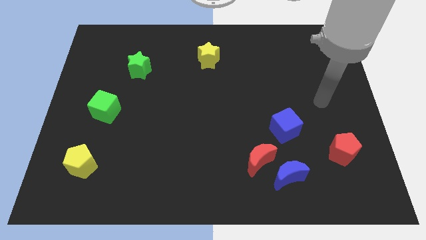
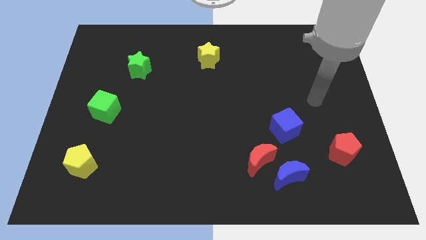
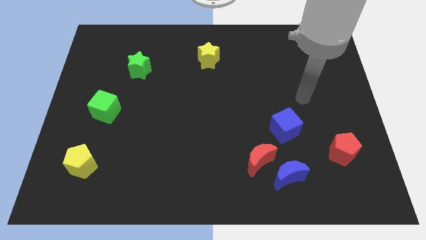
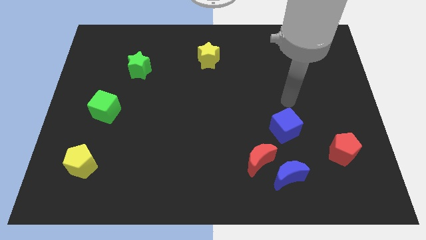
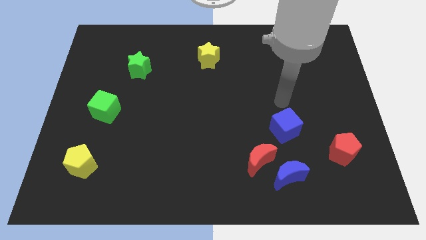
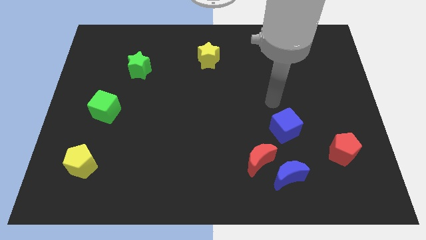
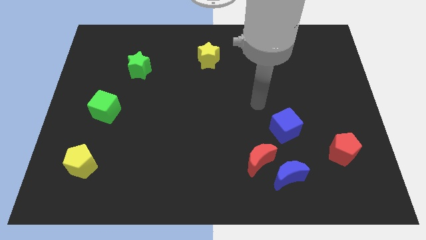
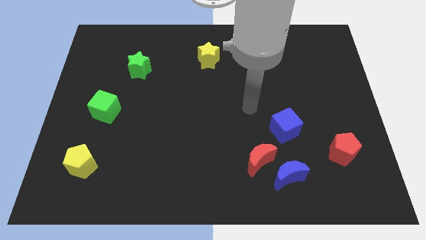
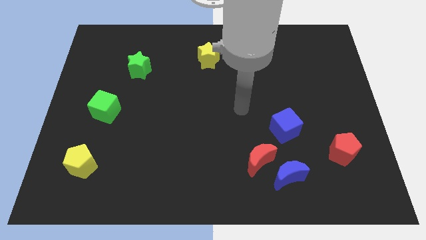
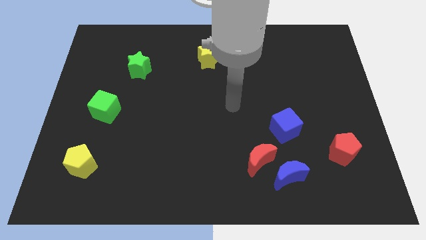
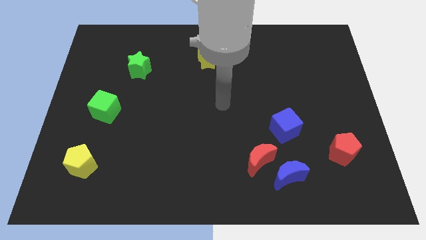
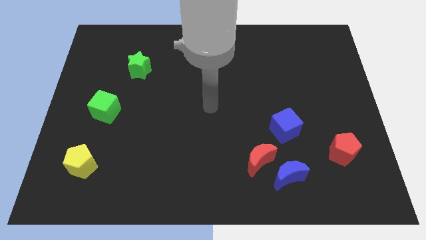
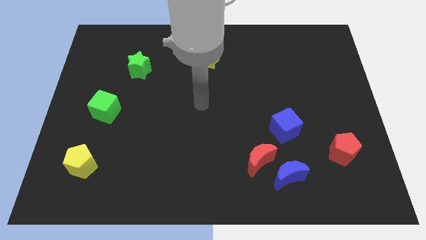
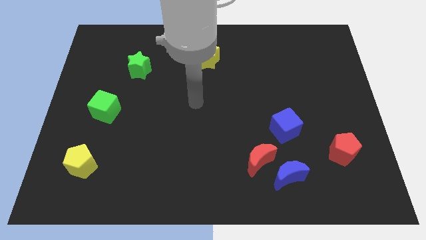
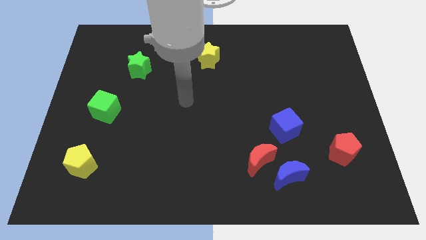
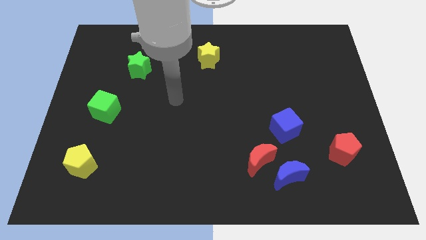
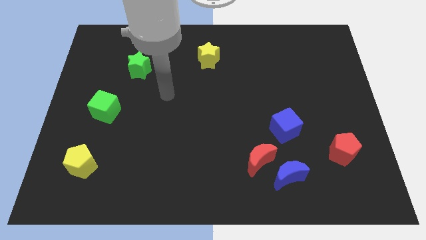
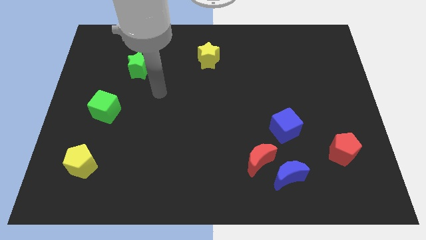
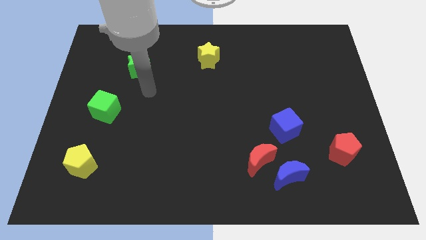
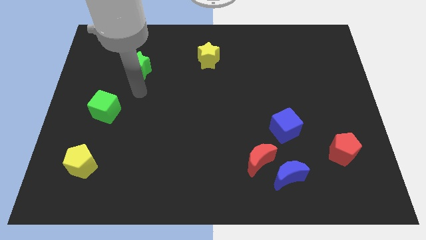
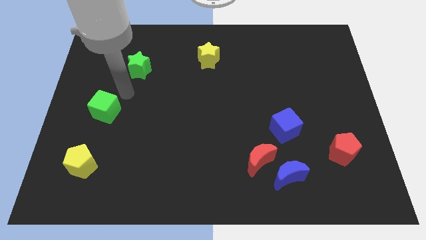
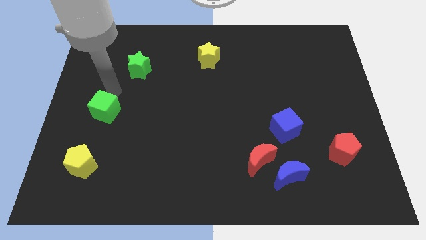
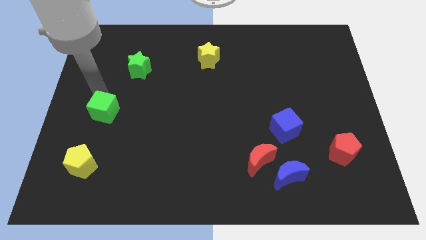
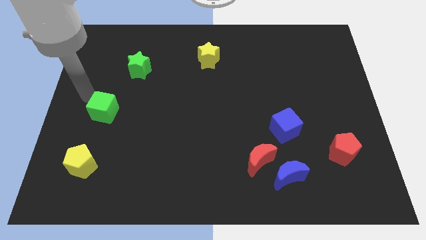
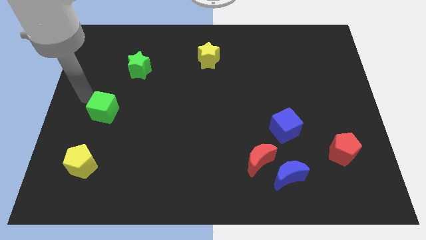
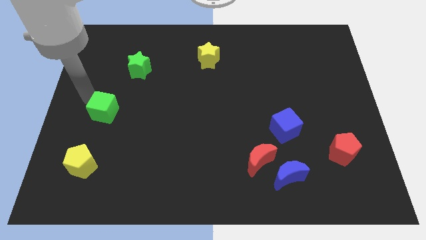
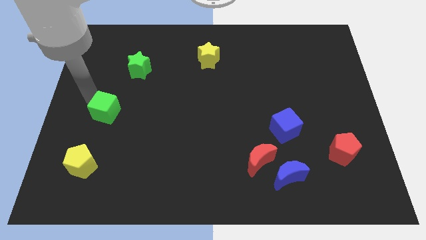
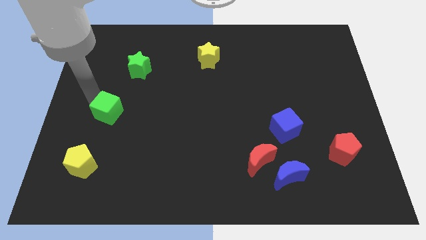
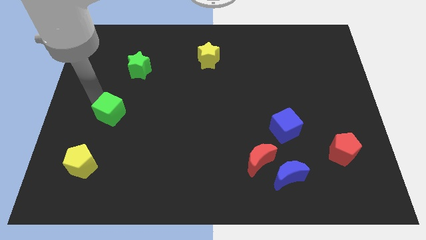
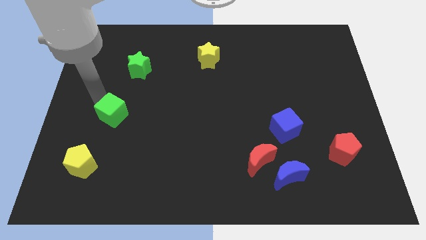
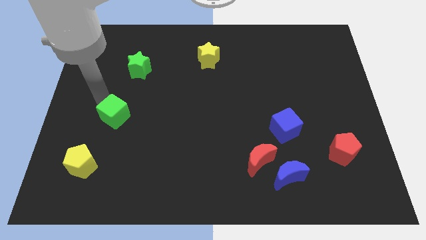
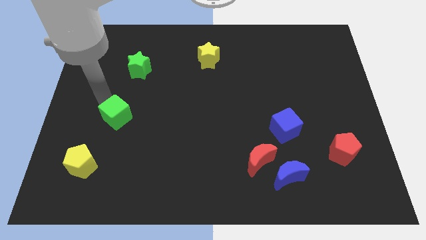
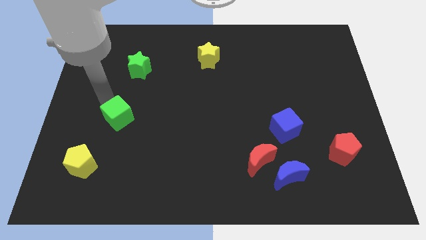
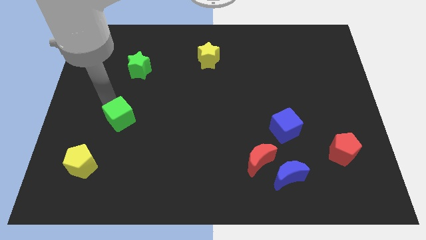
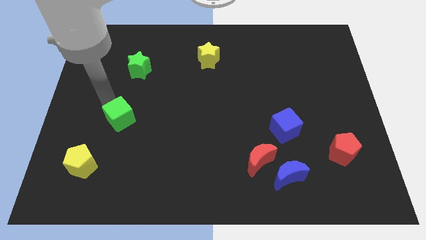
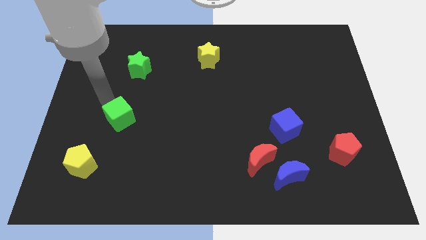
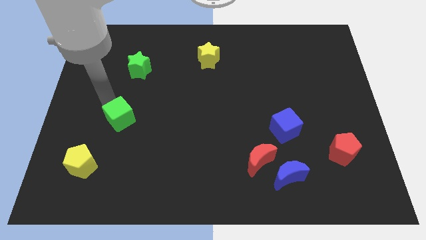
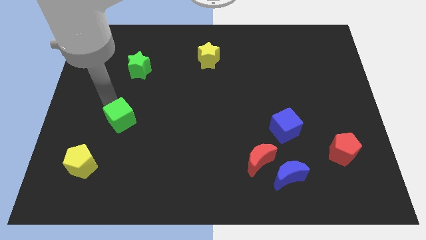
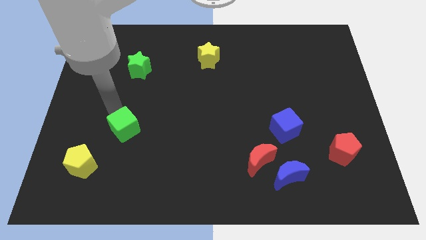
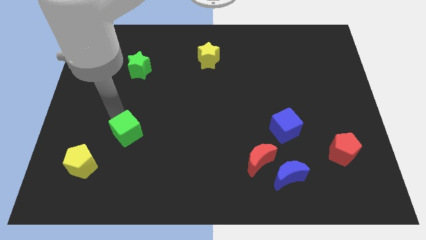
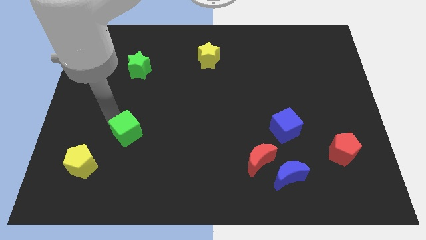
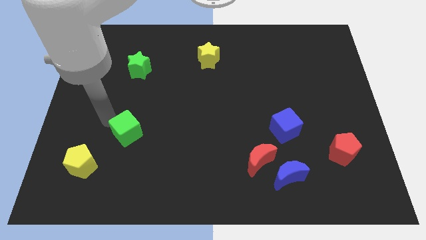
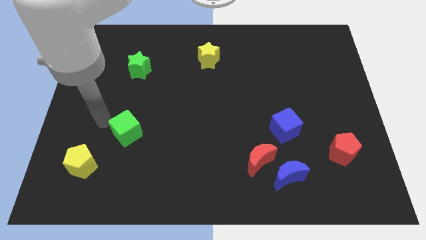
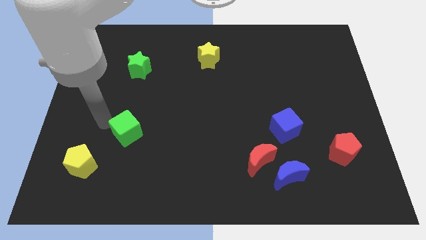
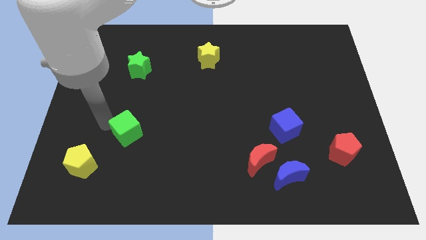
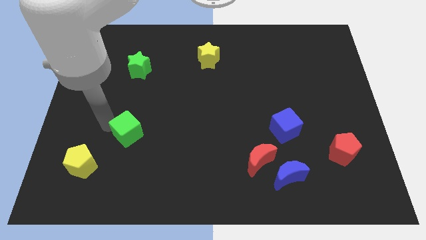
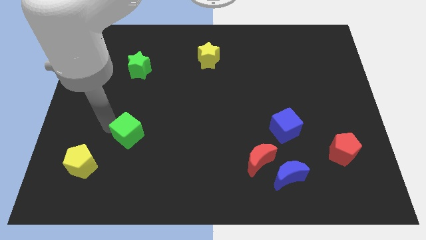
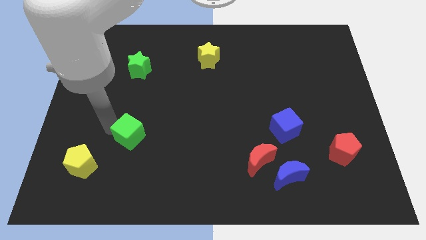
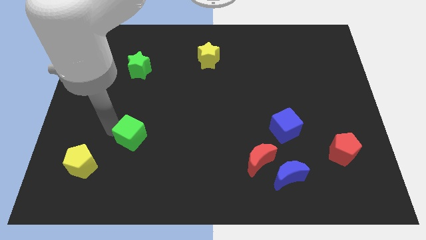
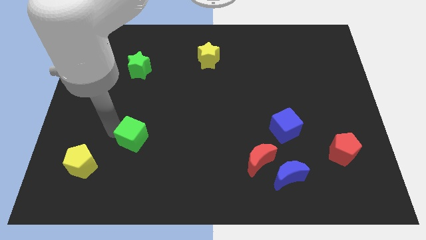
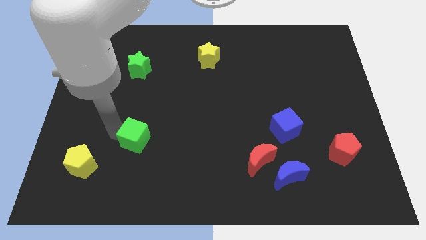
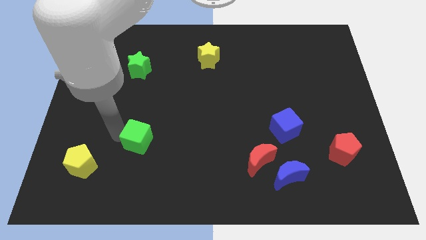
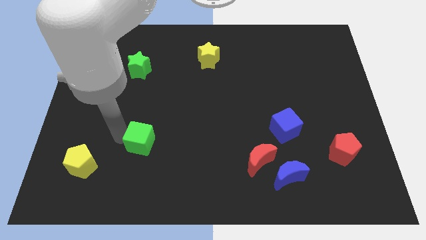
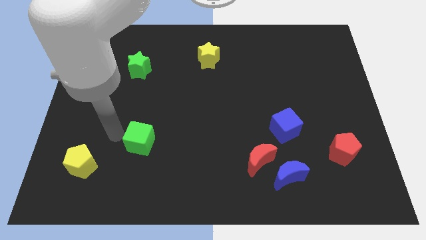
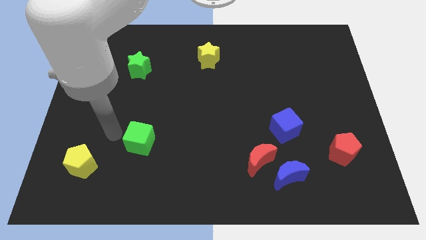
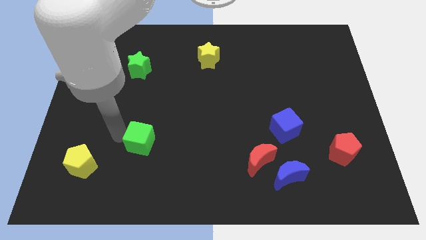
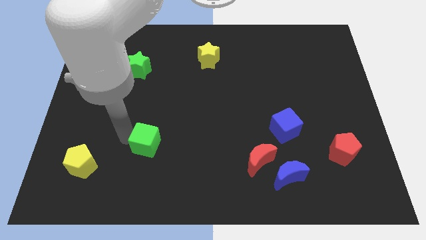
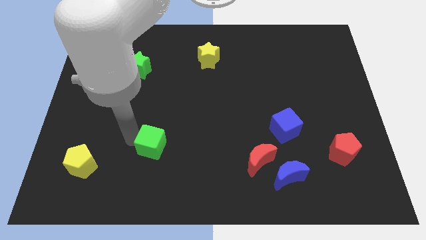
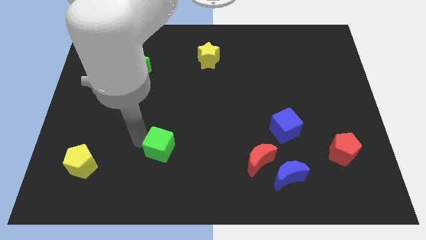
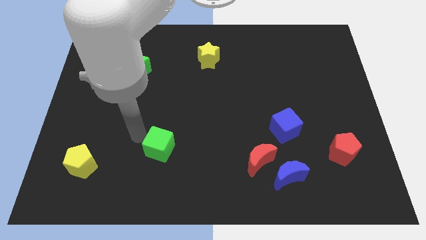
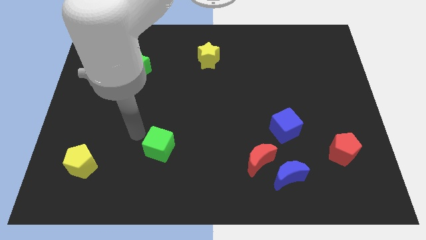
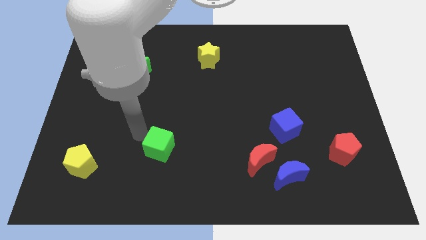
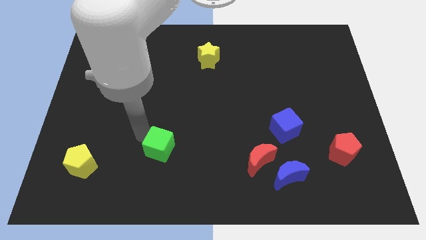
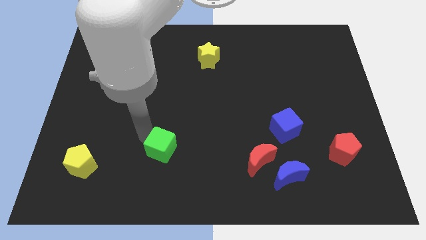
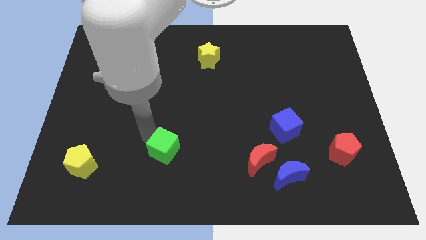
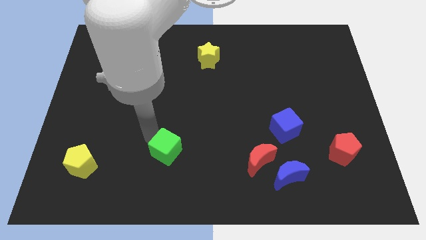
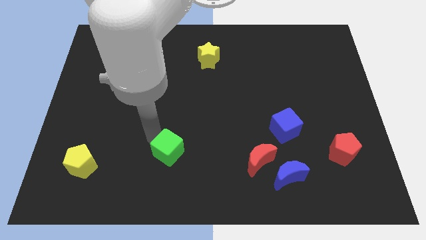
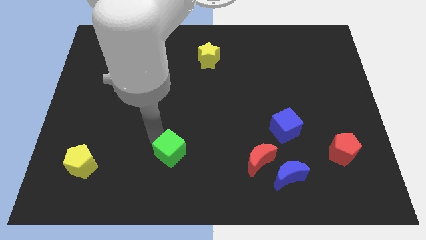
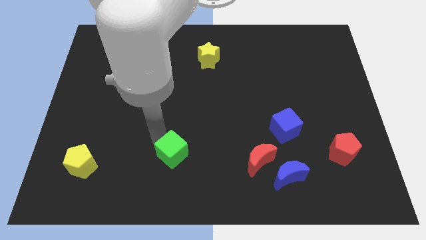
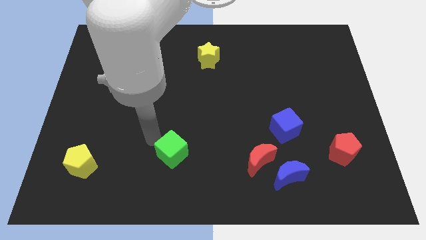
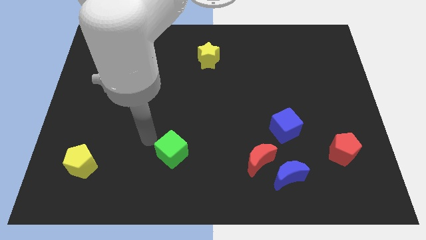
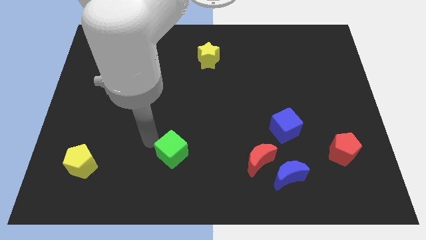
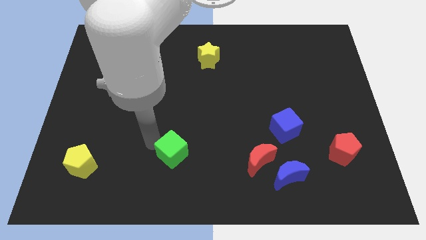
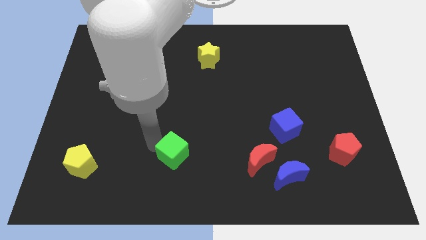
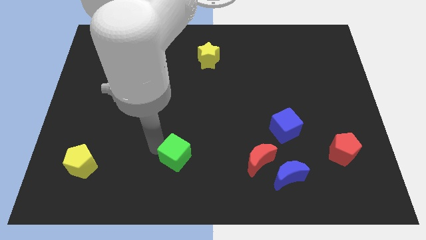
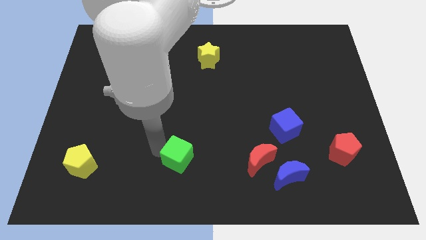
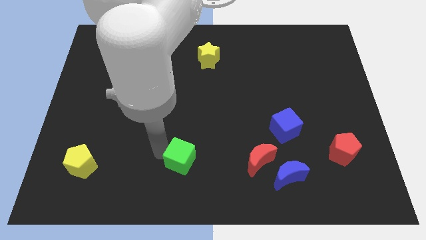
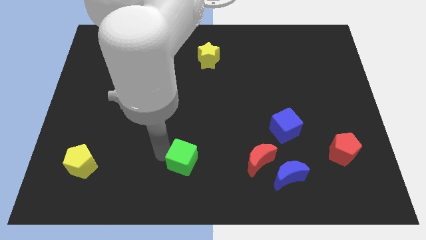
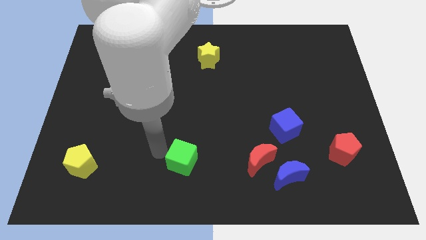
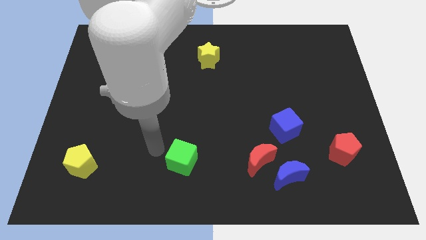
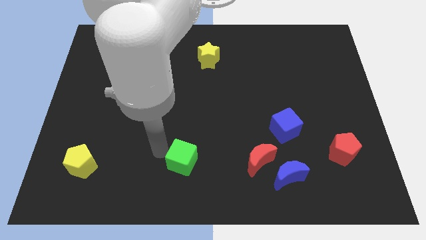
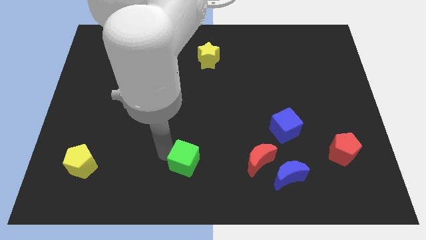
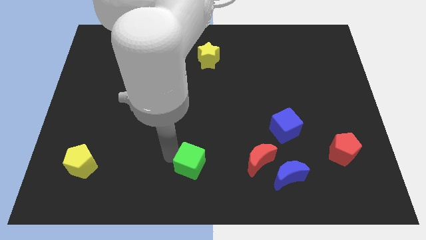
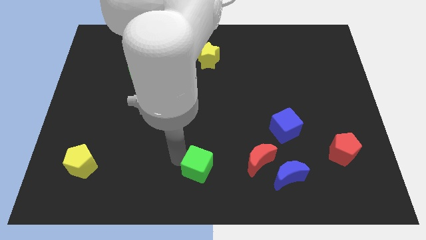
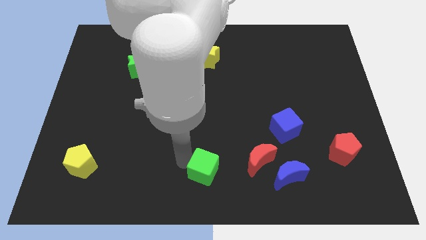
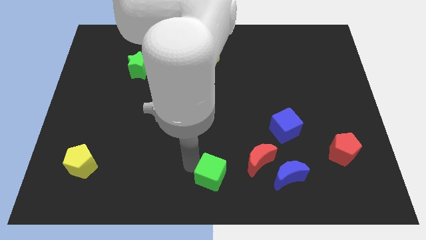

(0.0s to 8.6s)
move the green cube left of the blue moon
